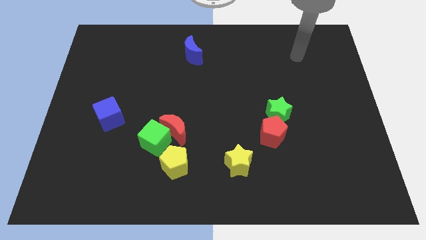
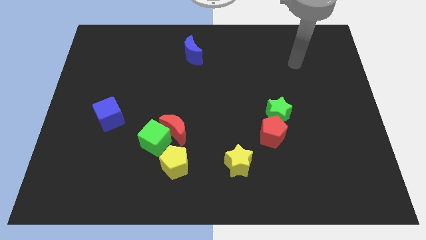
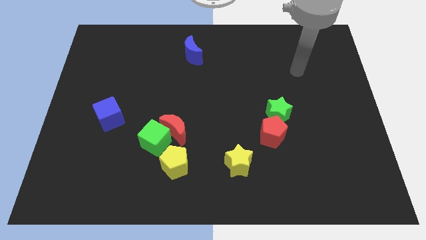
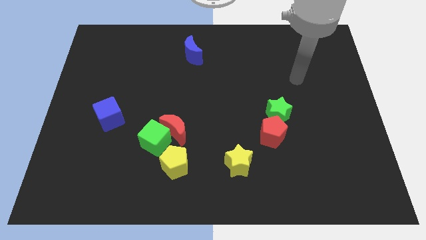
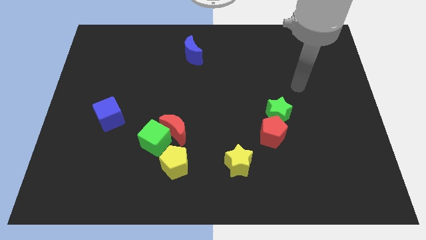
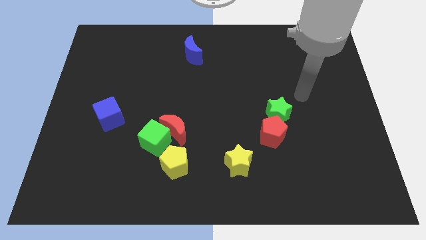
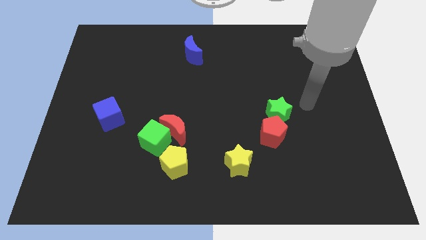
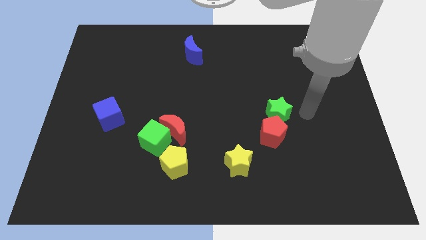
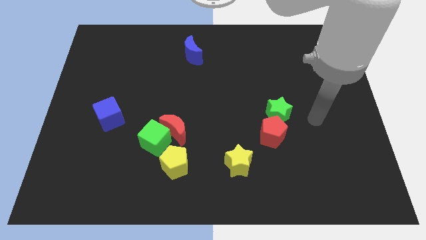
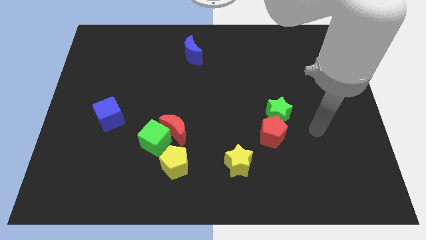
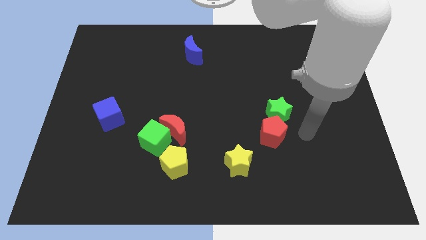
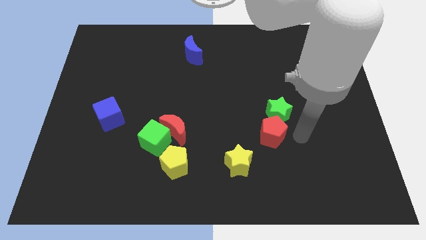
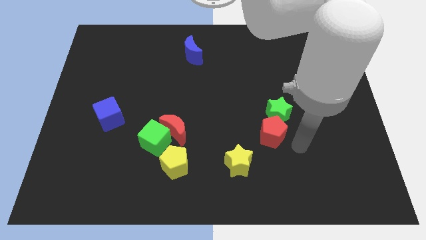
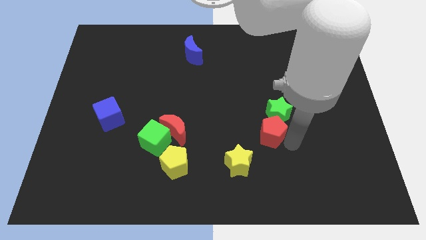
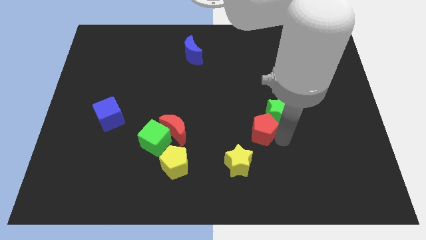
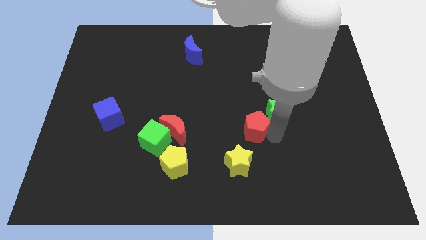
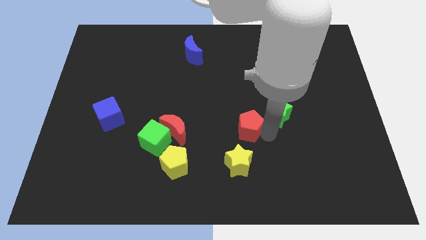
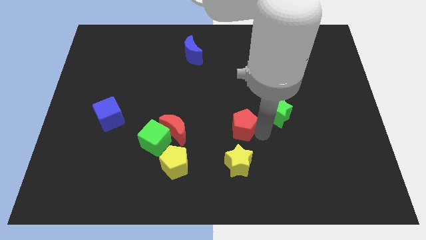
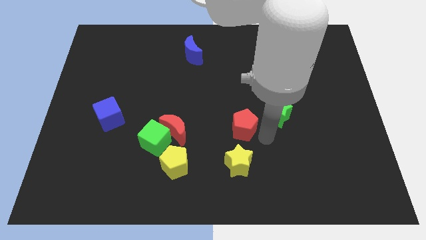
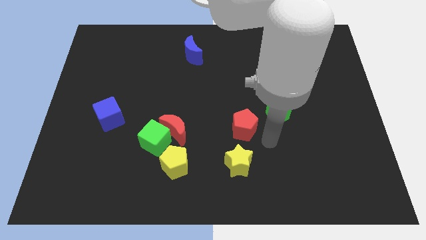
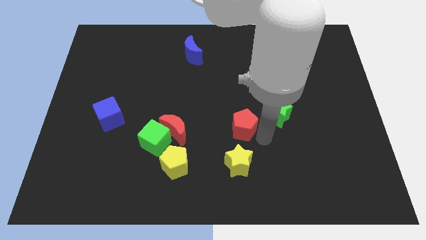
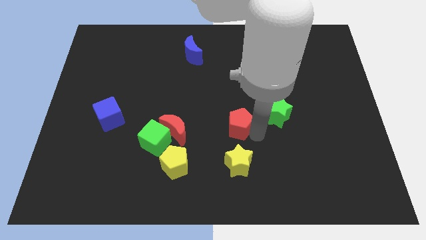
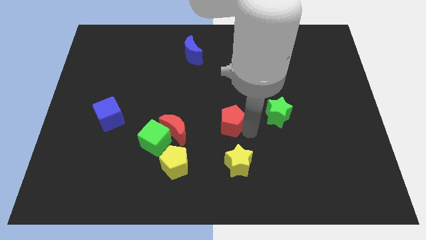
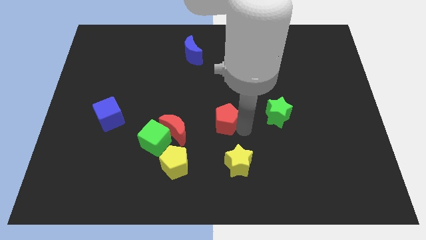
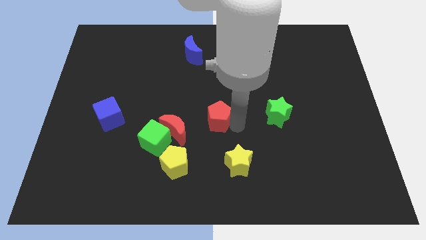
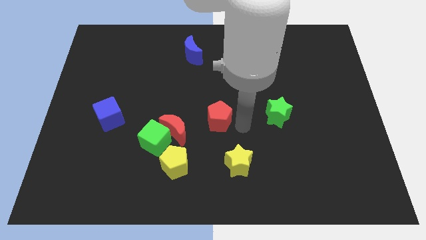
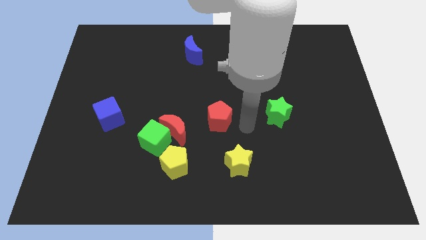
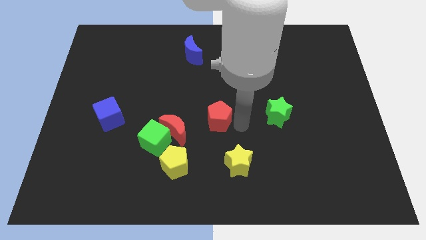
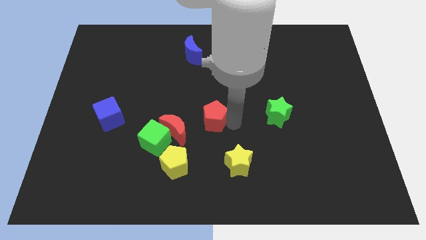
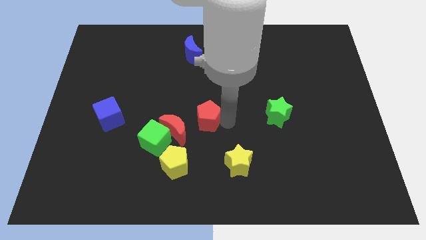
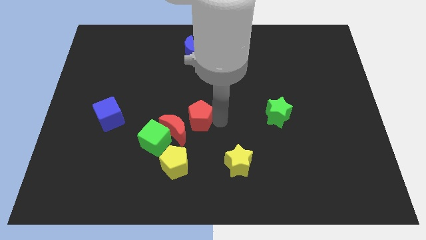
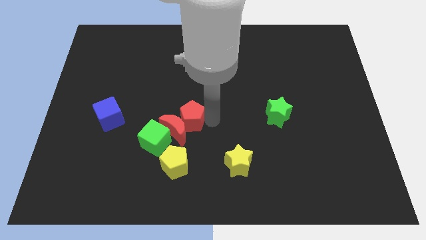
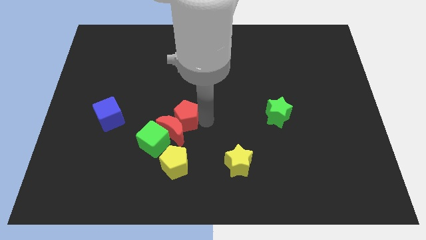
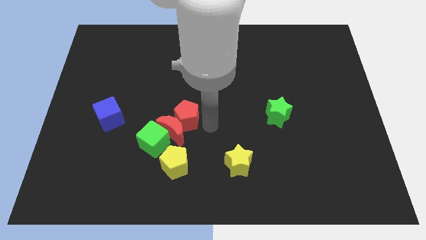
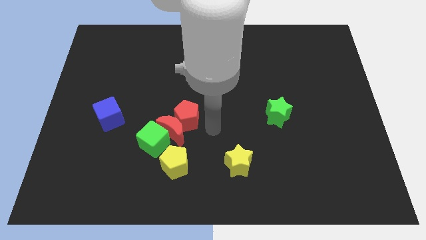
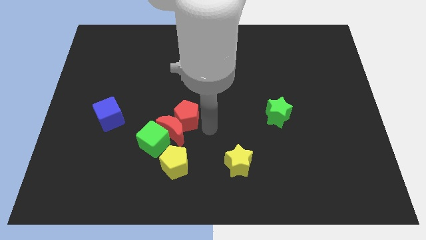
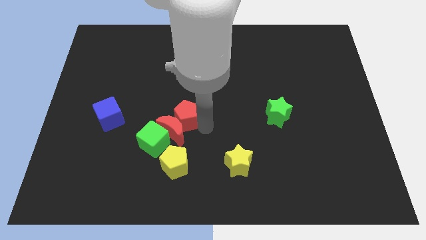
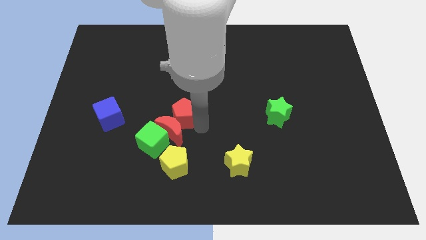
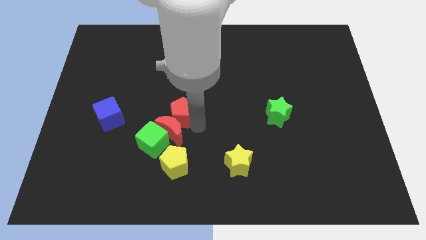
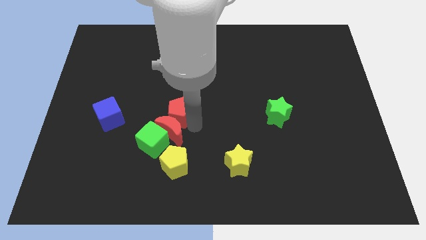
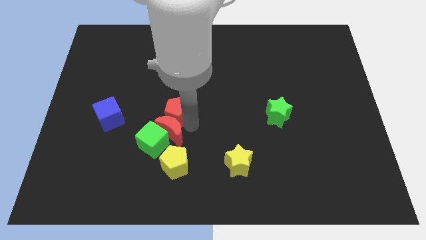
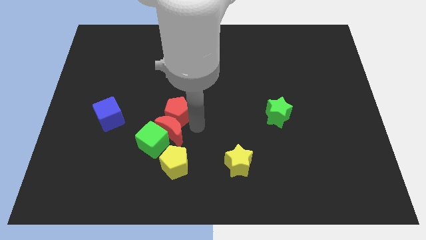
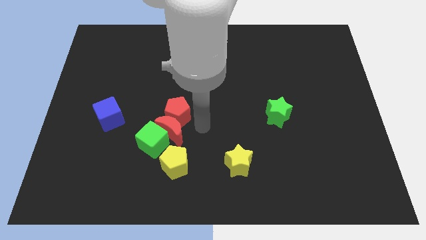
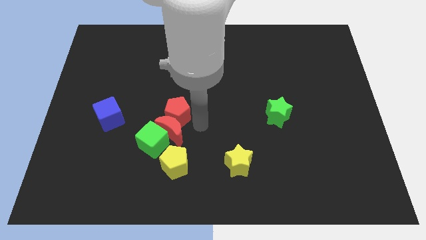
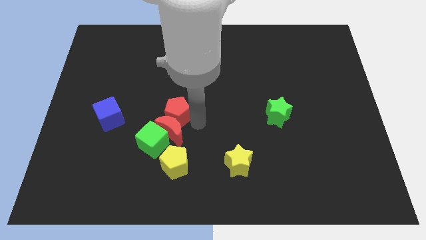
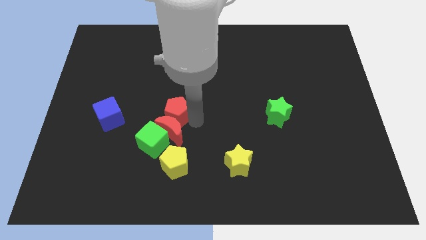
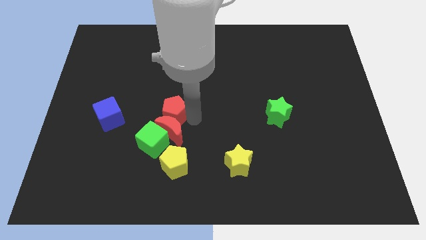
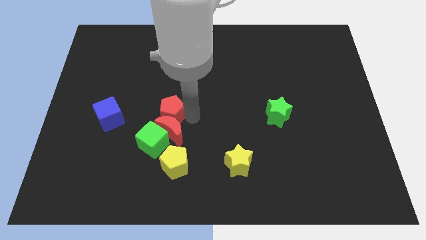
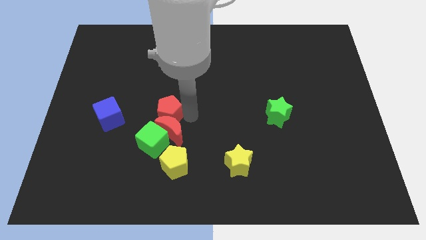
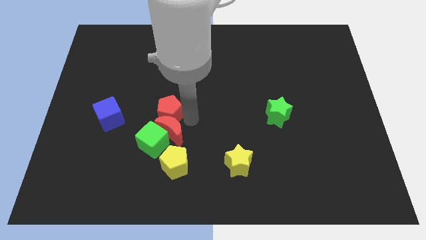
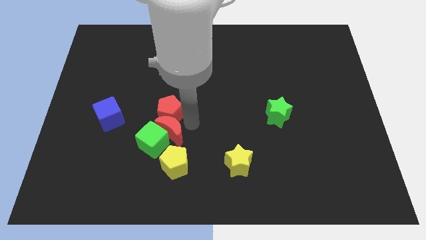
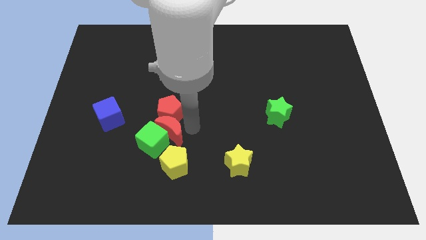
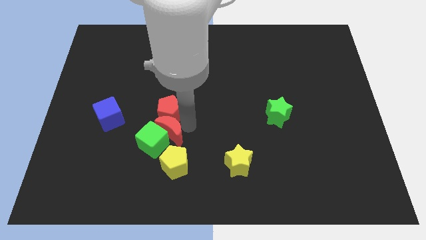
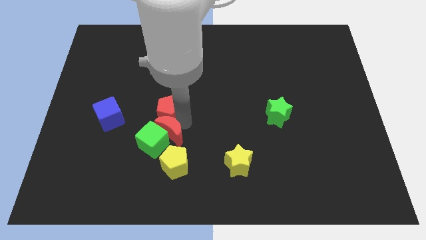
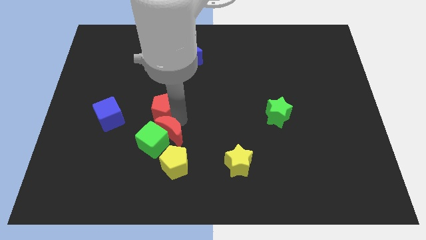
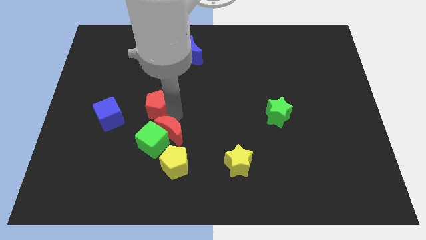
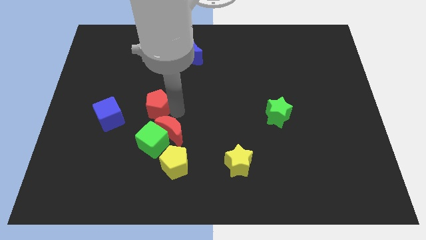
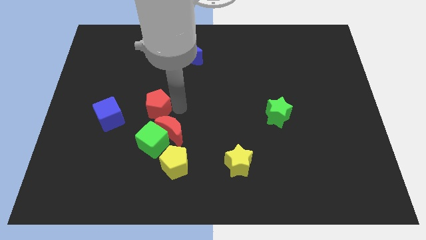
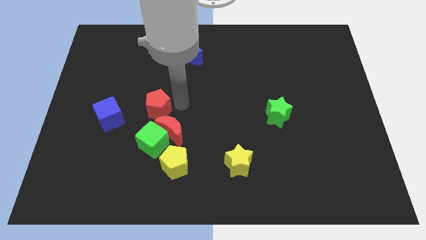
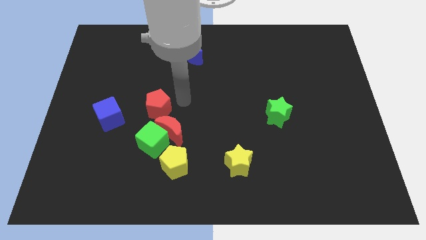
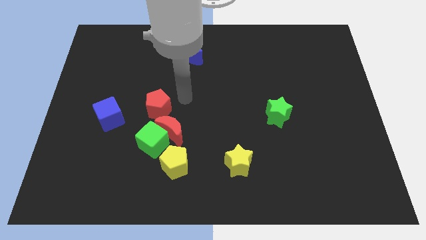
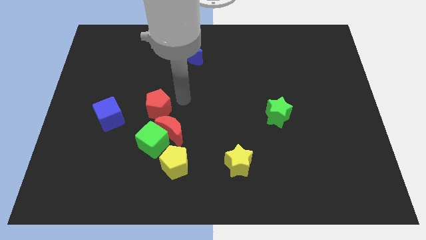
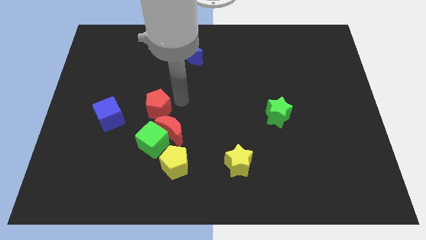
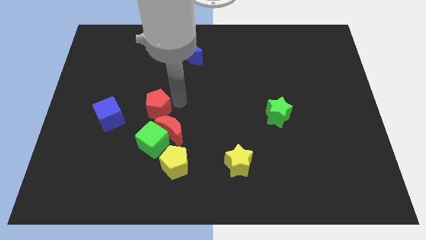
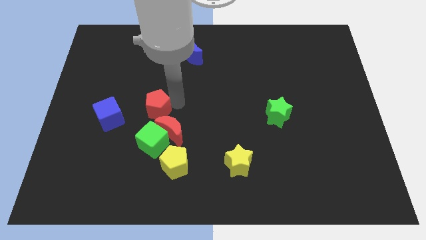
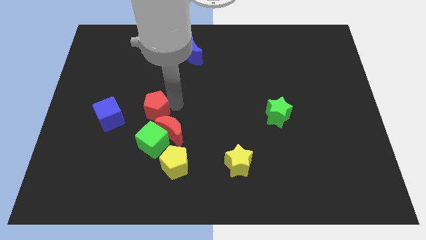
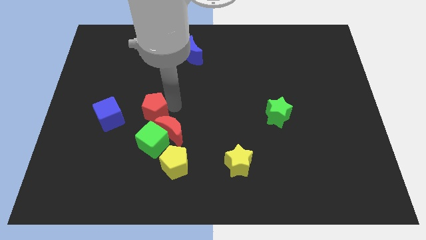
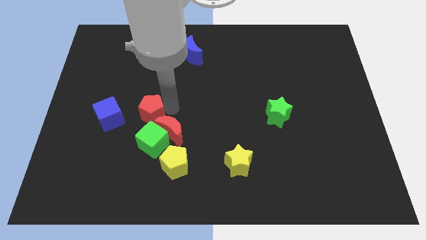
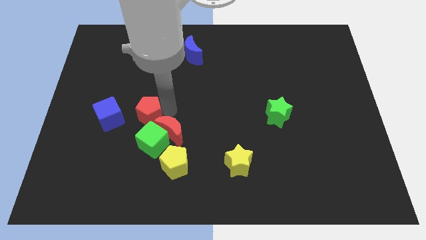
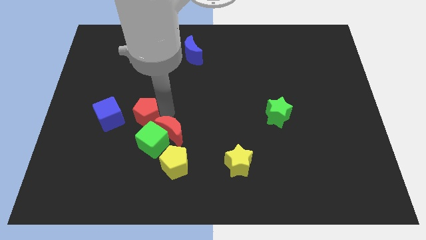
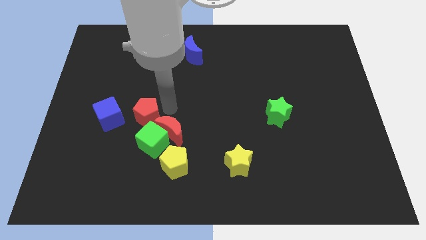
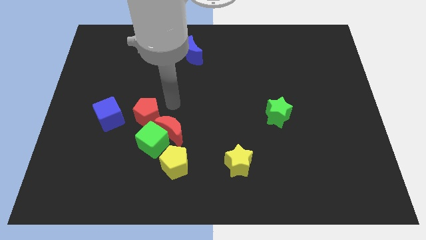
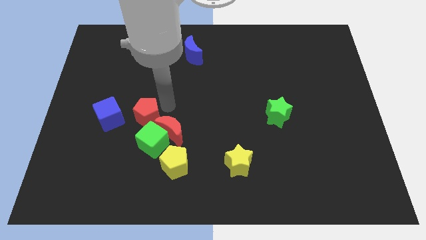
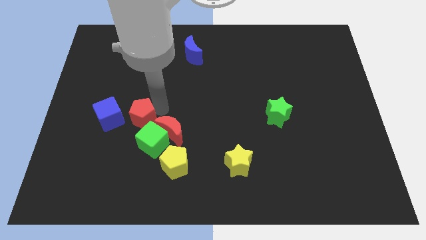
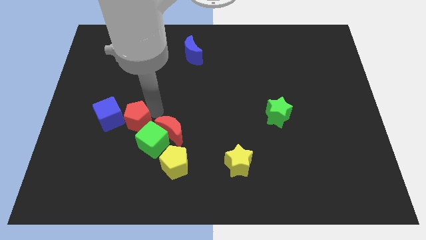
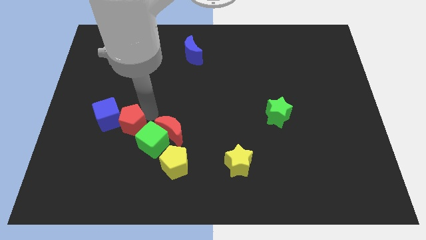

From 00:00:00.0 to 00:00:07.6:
slide the red pentagon left of the green cube
